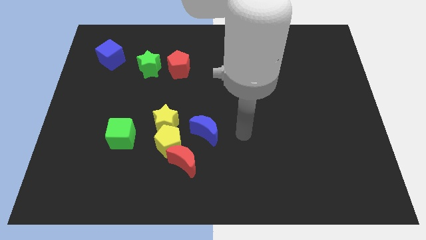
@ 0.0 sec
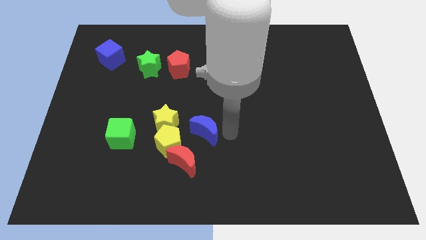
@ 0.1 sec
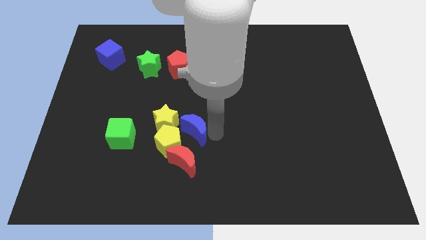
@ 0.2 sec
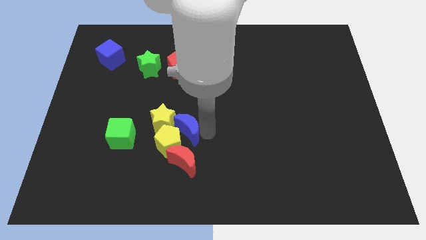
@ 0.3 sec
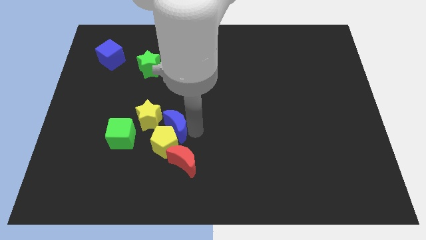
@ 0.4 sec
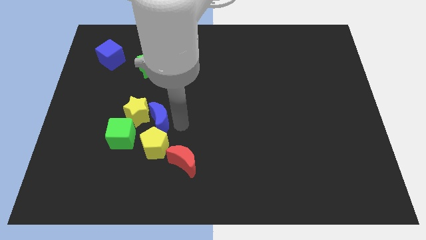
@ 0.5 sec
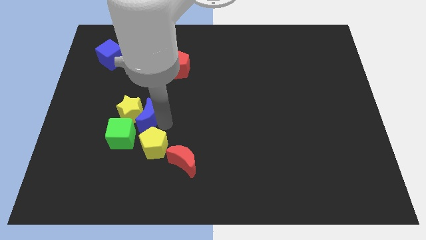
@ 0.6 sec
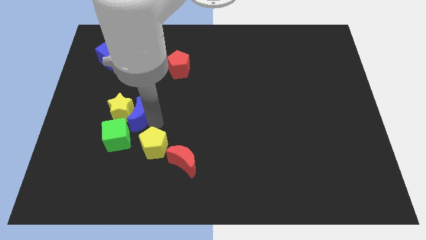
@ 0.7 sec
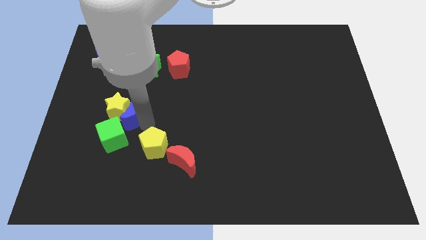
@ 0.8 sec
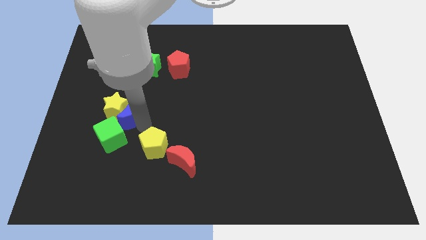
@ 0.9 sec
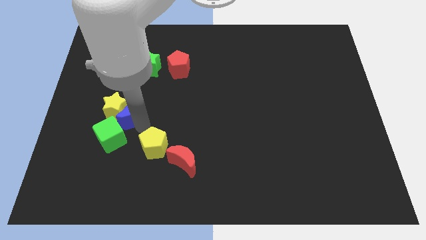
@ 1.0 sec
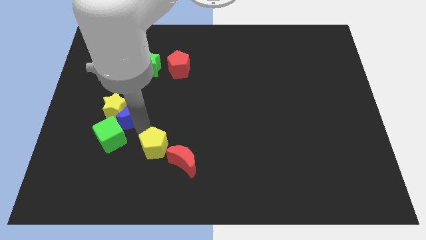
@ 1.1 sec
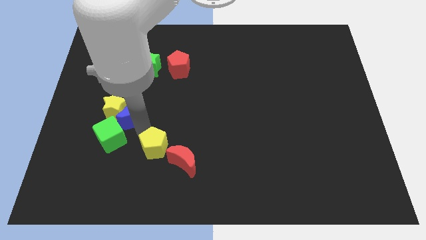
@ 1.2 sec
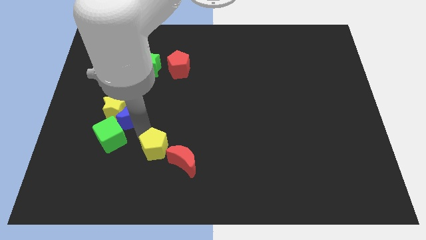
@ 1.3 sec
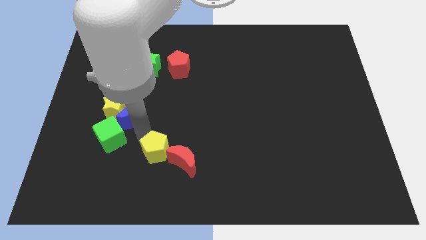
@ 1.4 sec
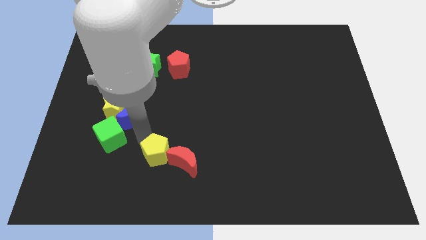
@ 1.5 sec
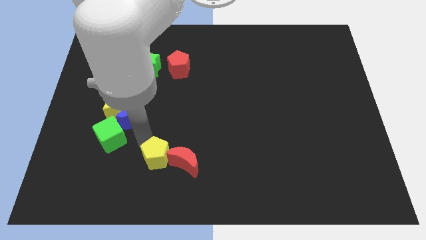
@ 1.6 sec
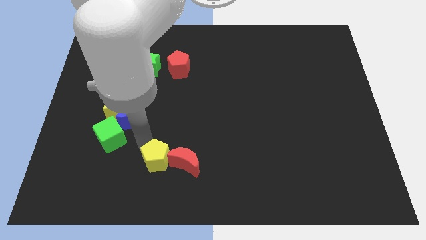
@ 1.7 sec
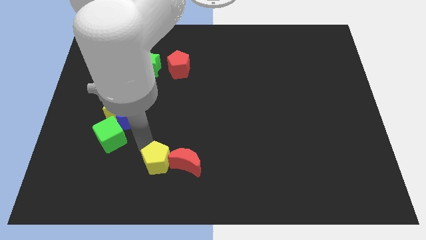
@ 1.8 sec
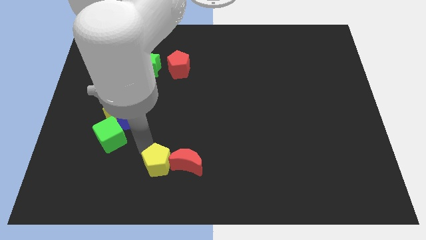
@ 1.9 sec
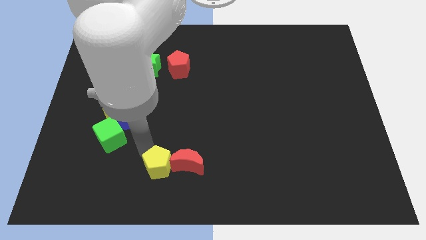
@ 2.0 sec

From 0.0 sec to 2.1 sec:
pull the yellow pentagon apart from the group of blocks

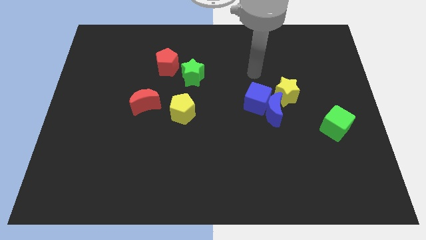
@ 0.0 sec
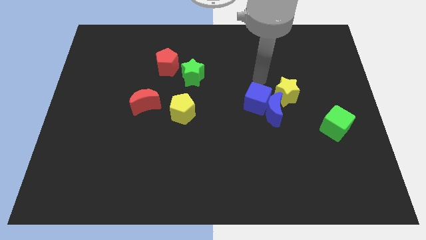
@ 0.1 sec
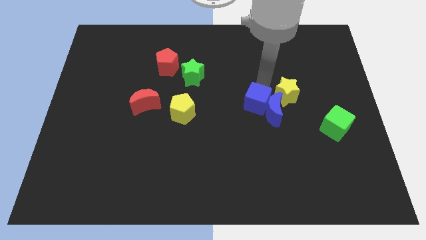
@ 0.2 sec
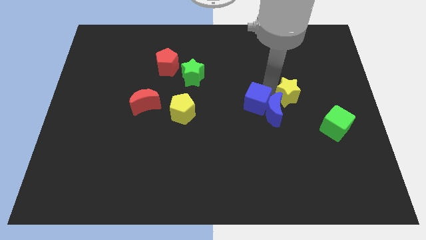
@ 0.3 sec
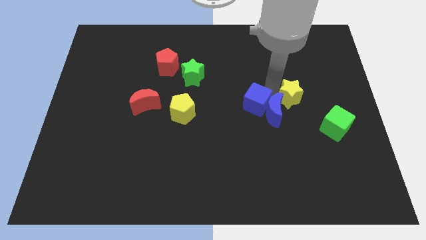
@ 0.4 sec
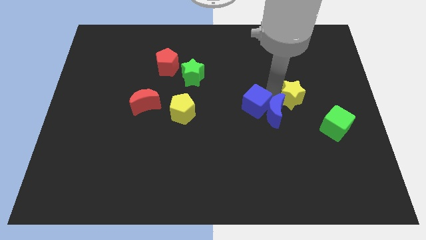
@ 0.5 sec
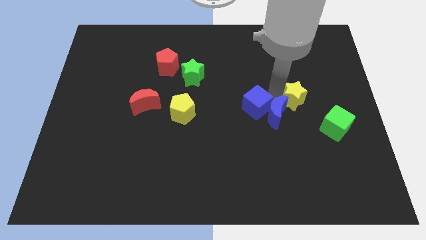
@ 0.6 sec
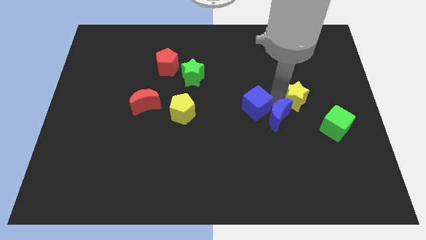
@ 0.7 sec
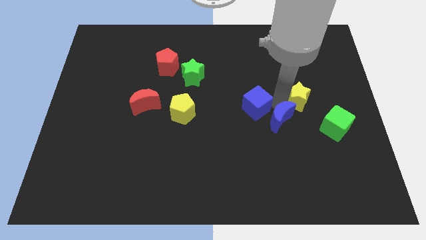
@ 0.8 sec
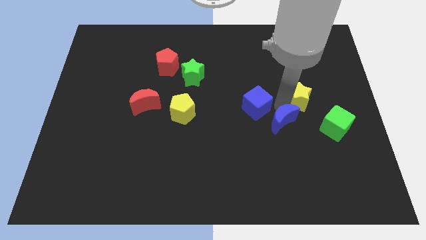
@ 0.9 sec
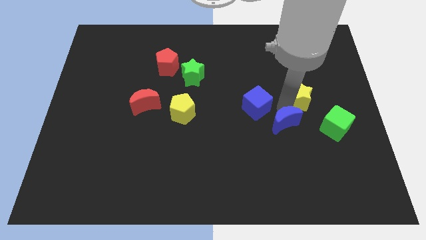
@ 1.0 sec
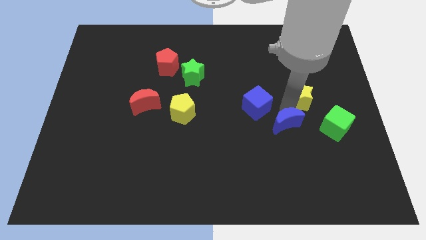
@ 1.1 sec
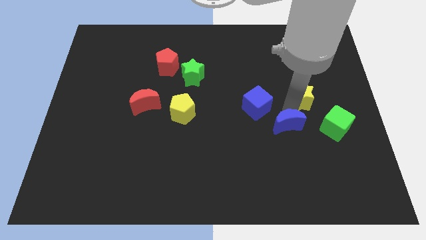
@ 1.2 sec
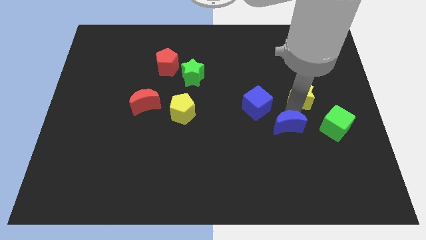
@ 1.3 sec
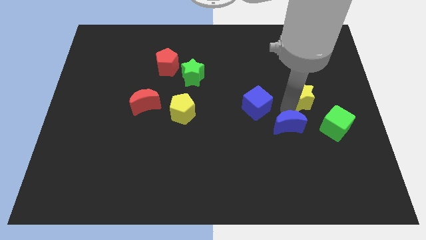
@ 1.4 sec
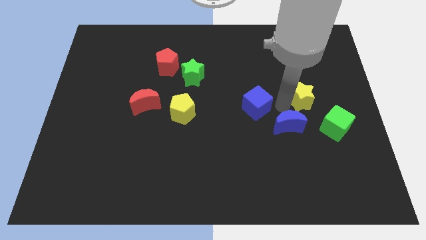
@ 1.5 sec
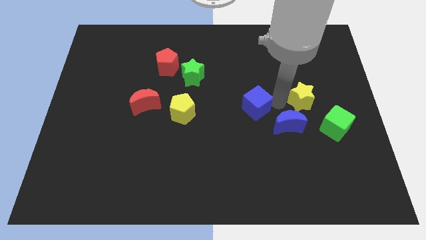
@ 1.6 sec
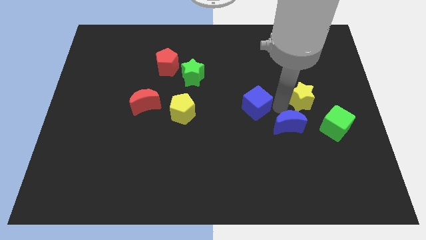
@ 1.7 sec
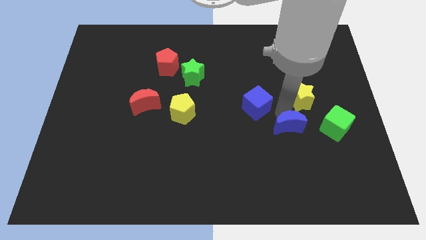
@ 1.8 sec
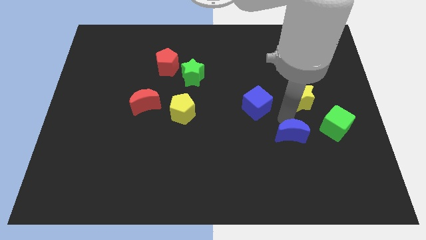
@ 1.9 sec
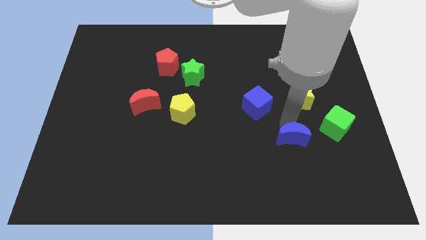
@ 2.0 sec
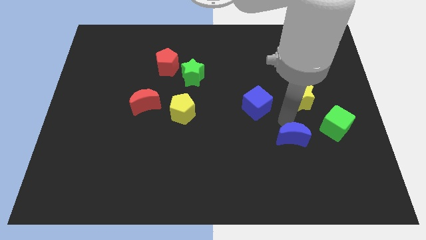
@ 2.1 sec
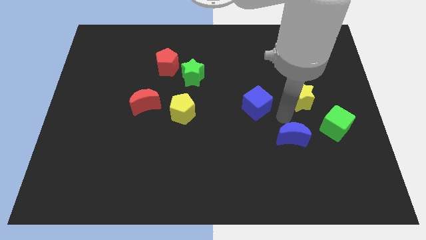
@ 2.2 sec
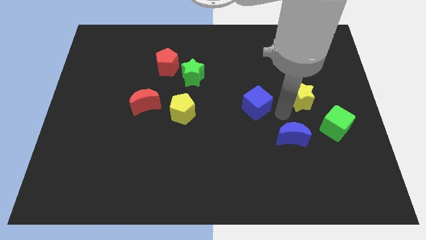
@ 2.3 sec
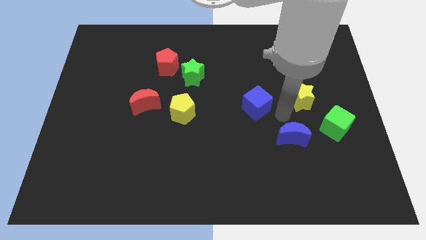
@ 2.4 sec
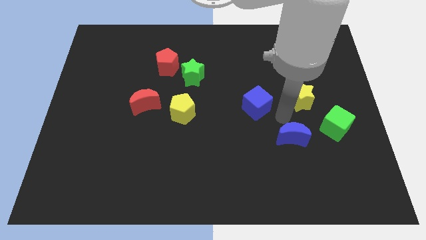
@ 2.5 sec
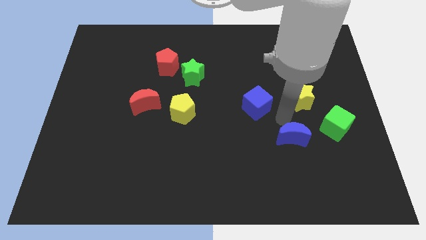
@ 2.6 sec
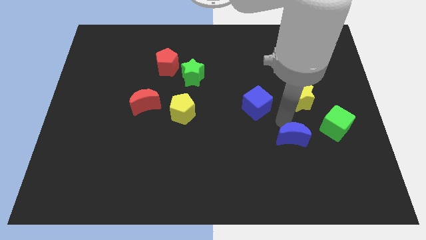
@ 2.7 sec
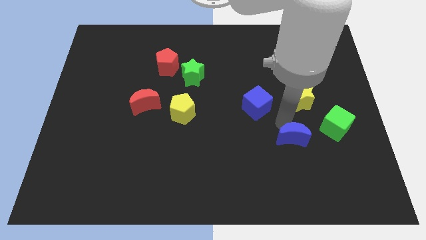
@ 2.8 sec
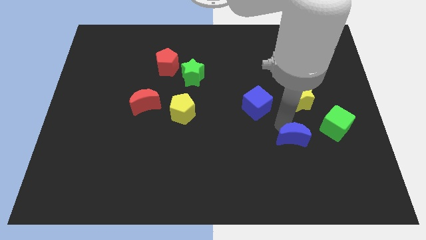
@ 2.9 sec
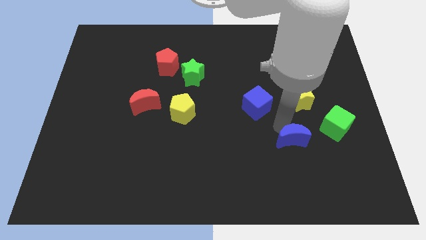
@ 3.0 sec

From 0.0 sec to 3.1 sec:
move the blue moon away from the blue cube and yellow star

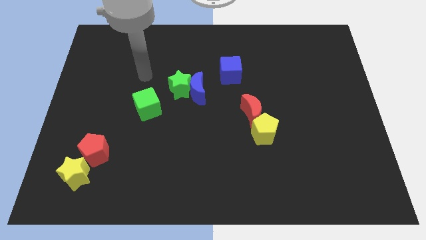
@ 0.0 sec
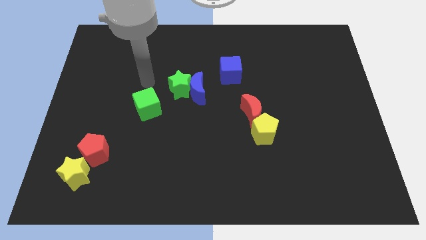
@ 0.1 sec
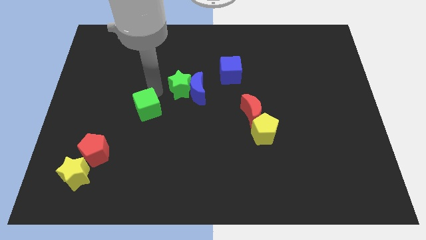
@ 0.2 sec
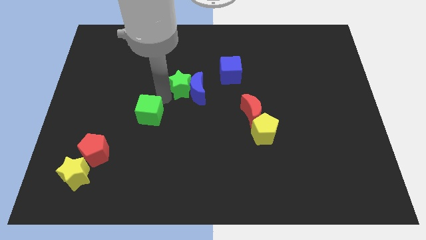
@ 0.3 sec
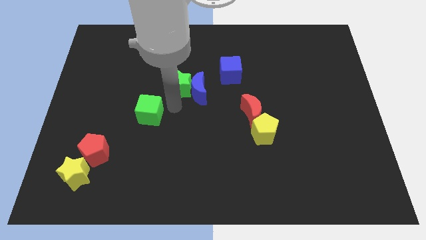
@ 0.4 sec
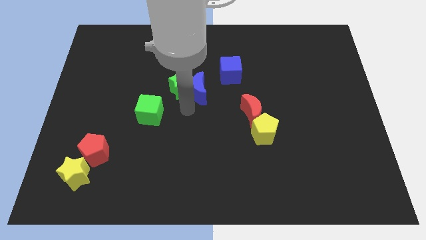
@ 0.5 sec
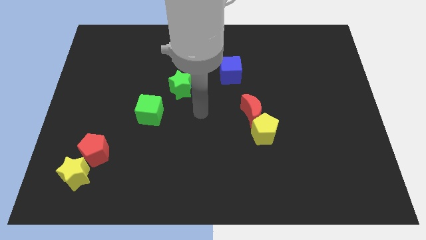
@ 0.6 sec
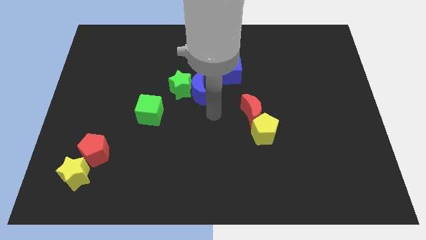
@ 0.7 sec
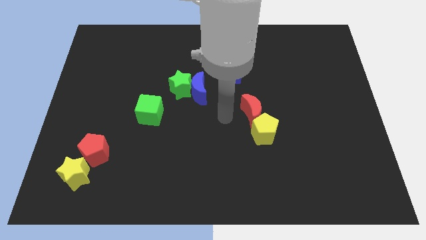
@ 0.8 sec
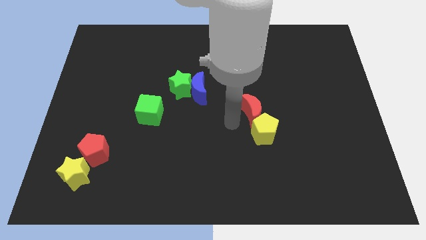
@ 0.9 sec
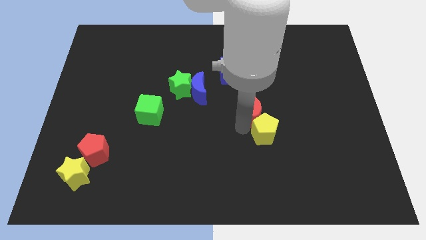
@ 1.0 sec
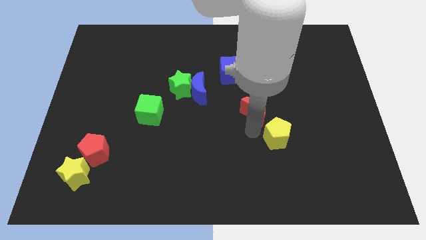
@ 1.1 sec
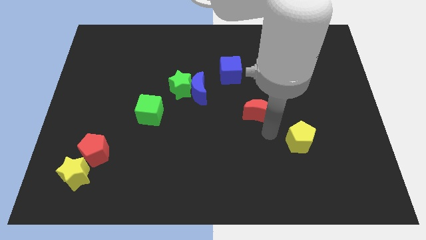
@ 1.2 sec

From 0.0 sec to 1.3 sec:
move the red moon away from the yellow pentagon

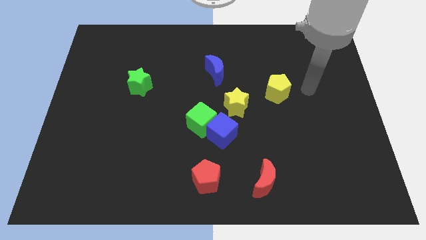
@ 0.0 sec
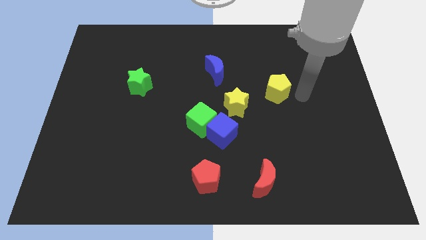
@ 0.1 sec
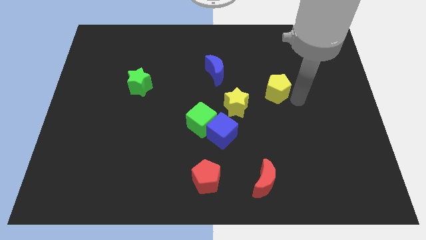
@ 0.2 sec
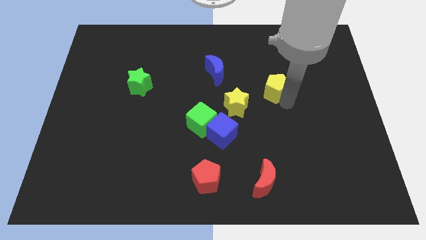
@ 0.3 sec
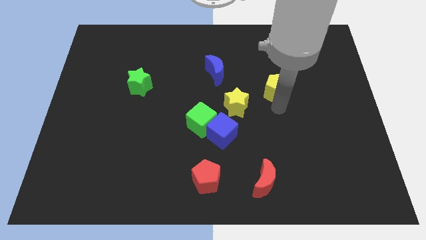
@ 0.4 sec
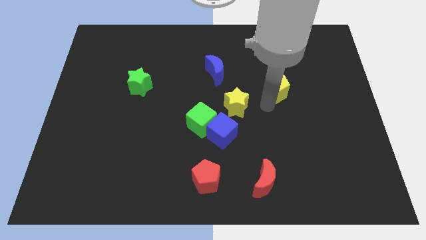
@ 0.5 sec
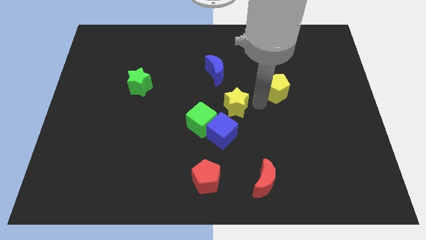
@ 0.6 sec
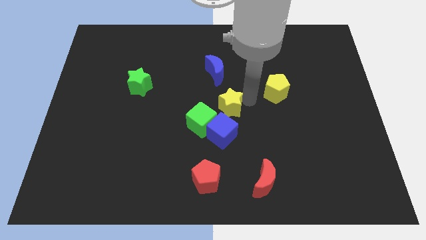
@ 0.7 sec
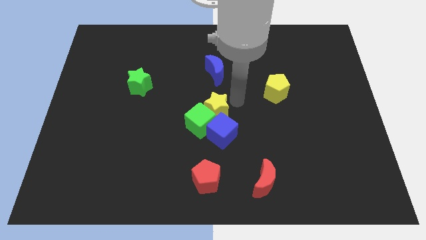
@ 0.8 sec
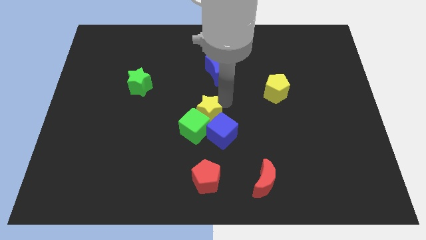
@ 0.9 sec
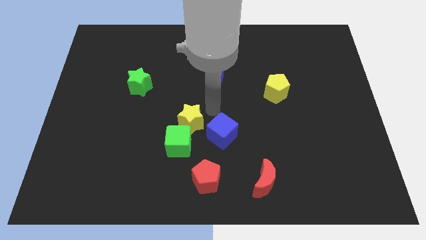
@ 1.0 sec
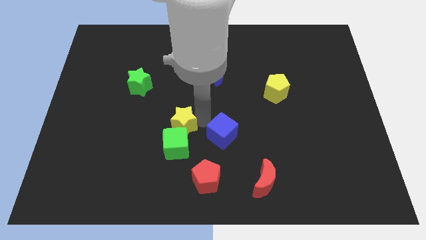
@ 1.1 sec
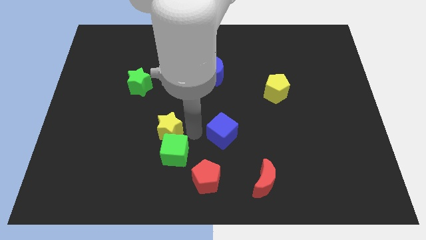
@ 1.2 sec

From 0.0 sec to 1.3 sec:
pull the blue cube apart from the green cube and yellow star

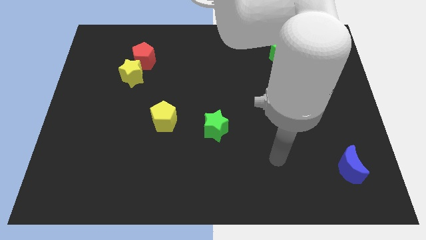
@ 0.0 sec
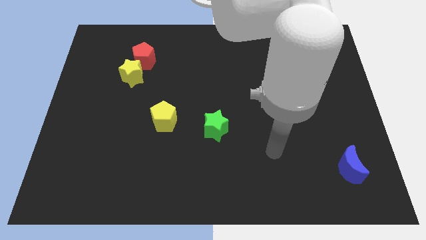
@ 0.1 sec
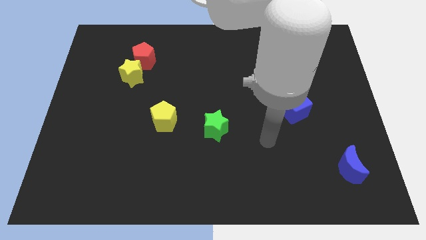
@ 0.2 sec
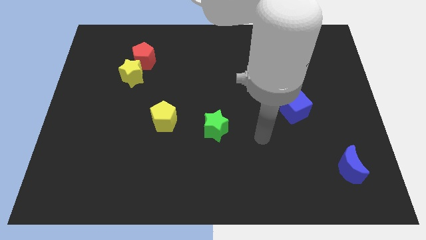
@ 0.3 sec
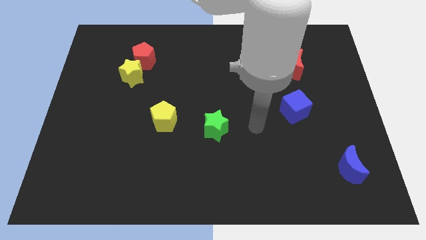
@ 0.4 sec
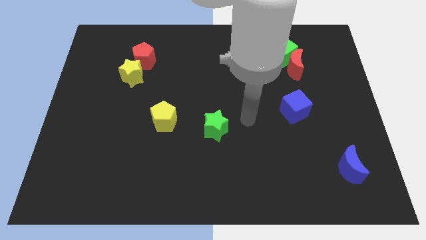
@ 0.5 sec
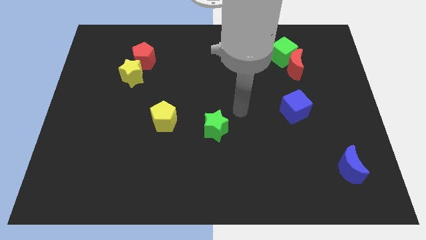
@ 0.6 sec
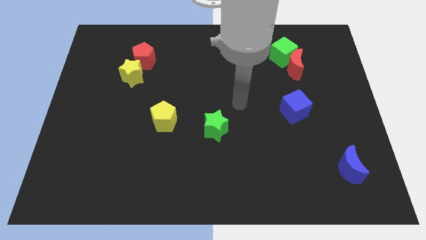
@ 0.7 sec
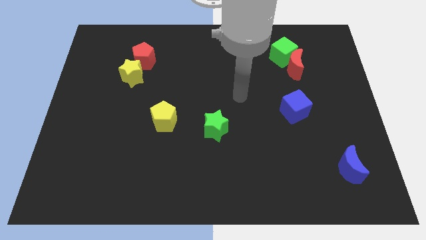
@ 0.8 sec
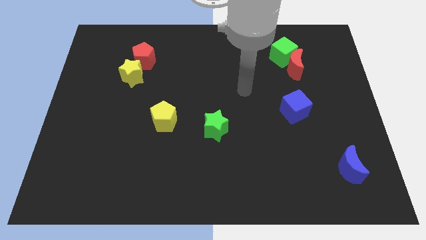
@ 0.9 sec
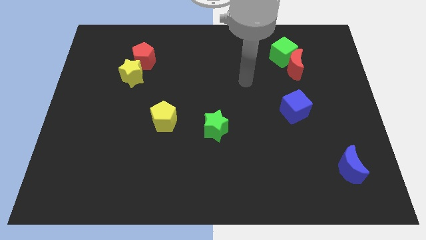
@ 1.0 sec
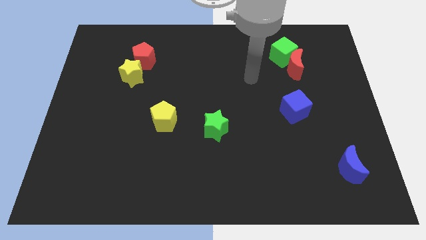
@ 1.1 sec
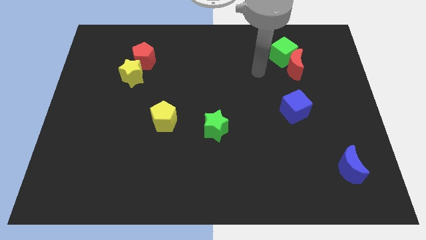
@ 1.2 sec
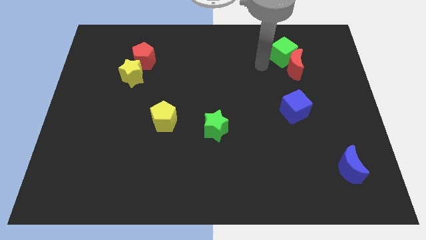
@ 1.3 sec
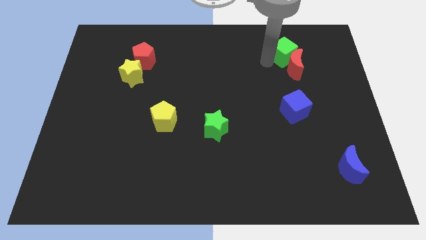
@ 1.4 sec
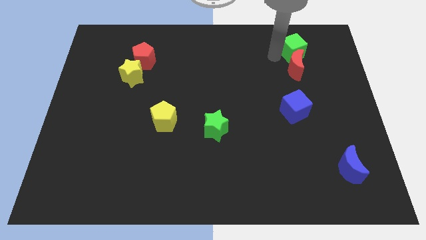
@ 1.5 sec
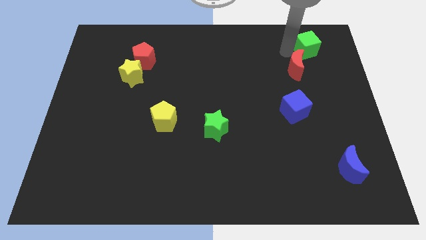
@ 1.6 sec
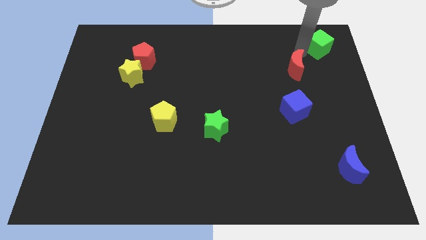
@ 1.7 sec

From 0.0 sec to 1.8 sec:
pull the red moon apart from the green cube
